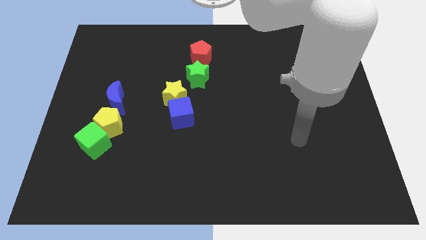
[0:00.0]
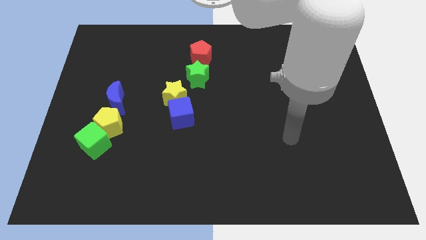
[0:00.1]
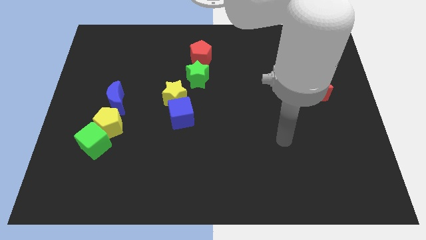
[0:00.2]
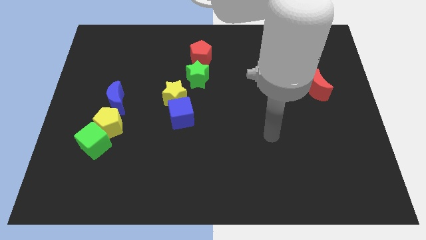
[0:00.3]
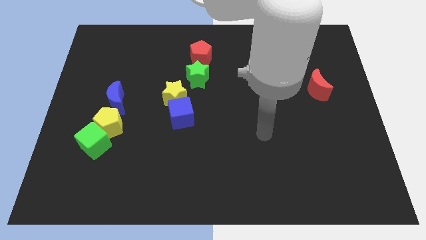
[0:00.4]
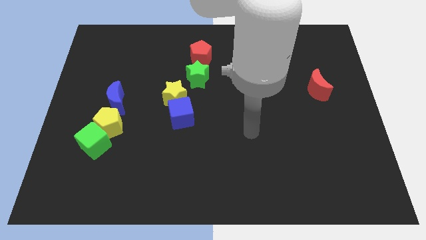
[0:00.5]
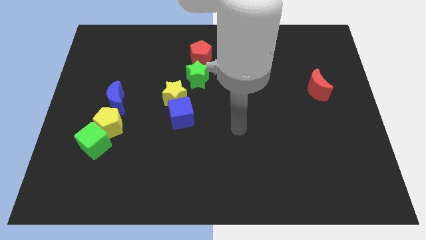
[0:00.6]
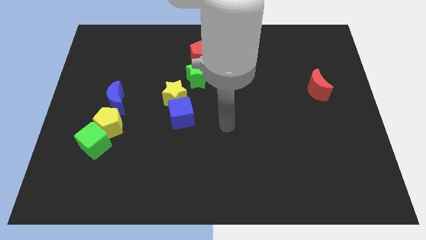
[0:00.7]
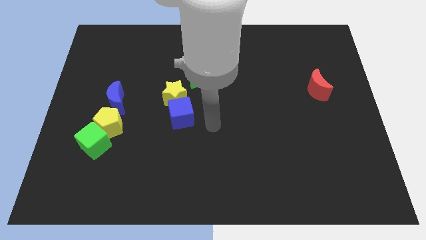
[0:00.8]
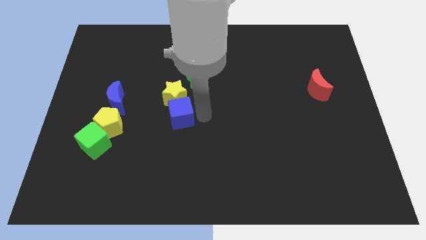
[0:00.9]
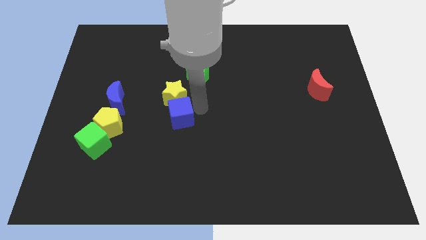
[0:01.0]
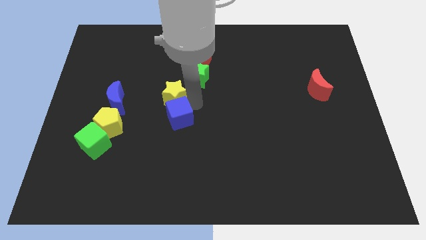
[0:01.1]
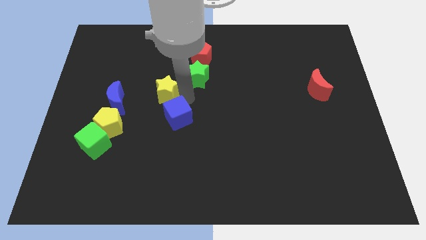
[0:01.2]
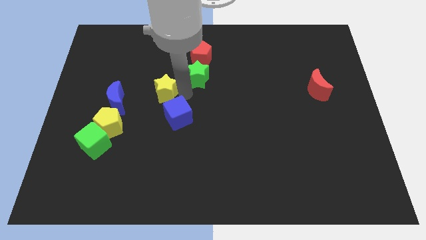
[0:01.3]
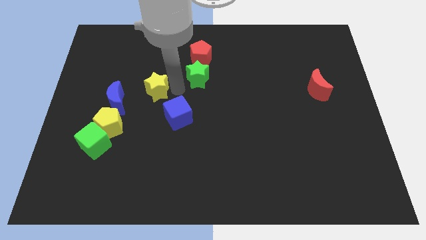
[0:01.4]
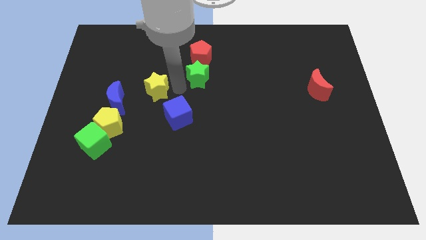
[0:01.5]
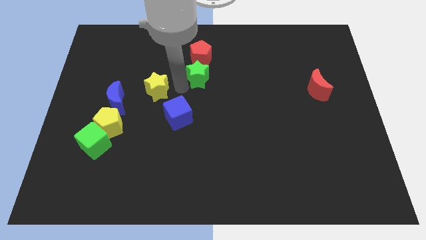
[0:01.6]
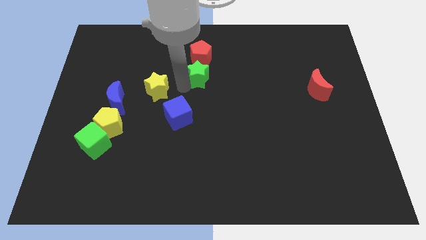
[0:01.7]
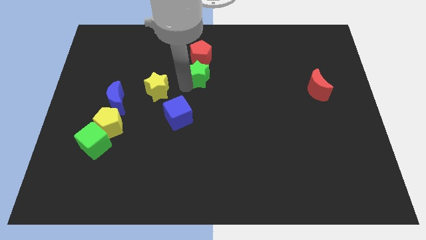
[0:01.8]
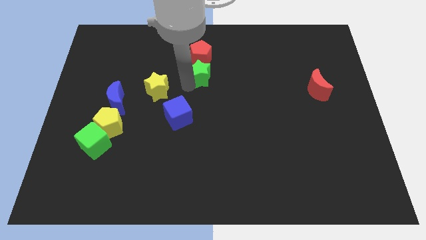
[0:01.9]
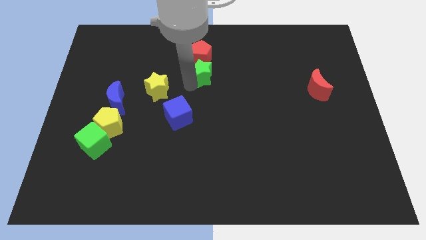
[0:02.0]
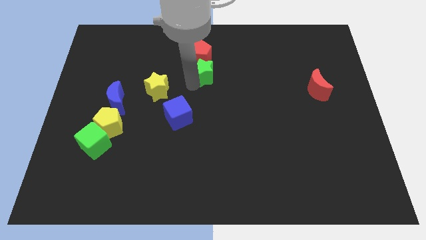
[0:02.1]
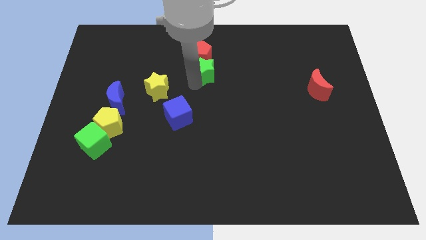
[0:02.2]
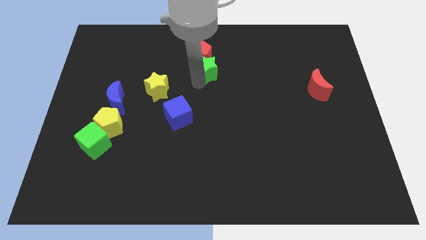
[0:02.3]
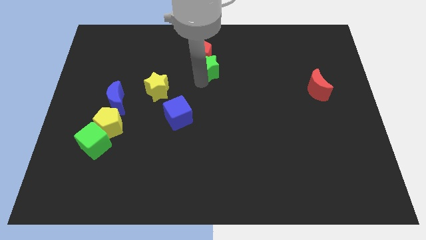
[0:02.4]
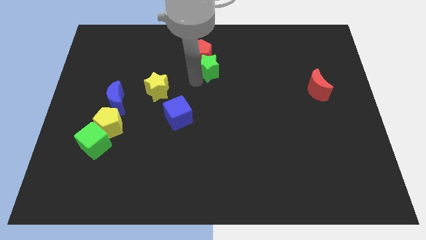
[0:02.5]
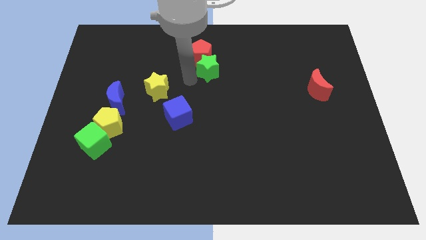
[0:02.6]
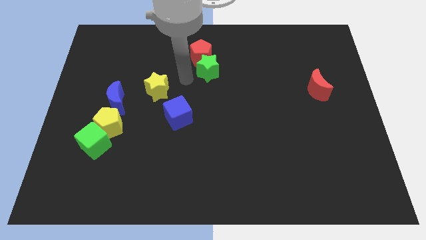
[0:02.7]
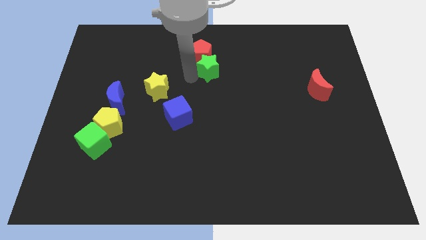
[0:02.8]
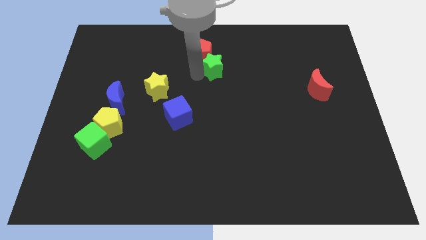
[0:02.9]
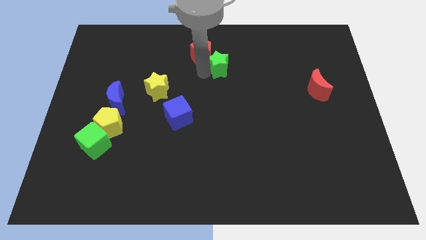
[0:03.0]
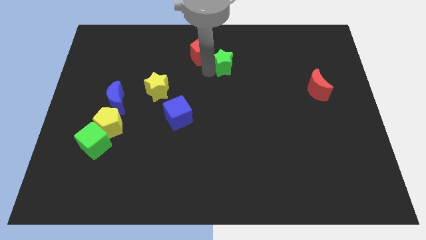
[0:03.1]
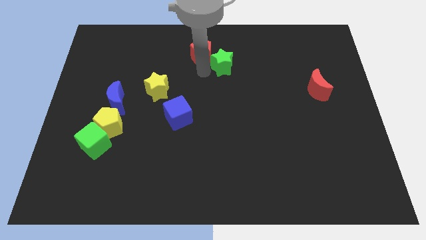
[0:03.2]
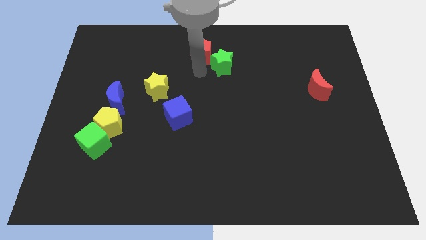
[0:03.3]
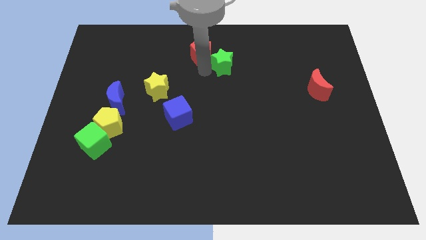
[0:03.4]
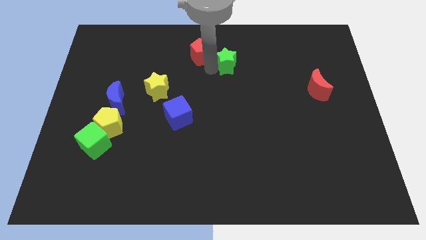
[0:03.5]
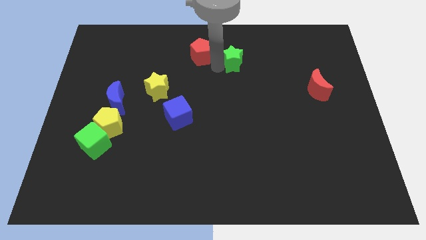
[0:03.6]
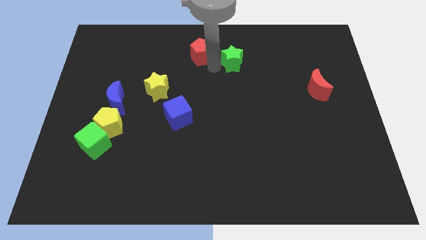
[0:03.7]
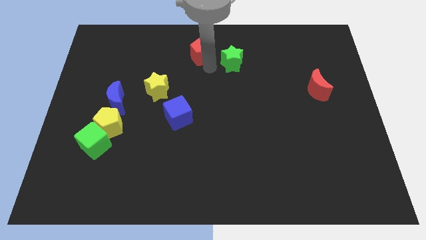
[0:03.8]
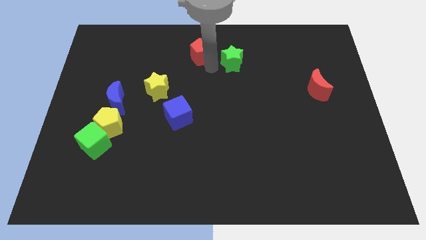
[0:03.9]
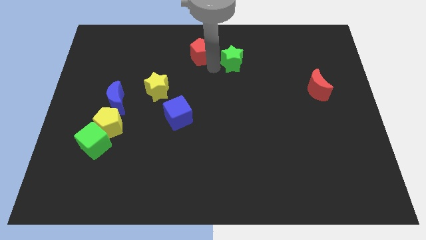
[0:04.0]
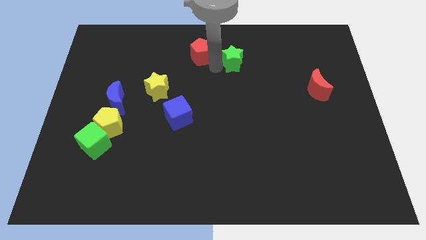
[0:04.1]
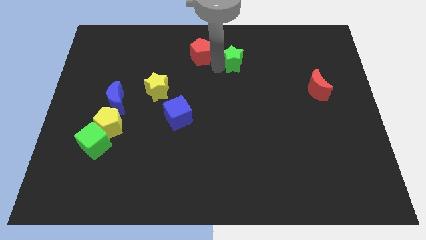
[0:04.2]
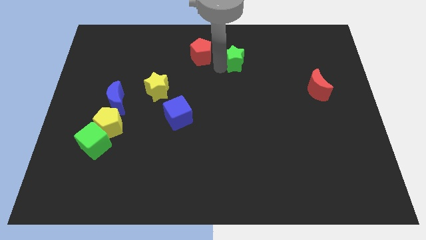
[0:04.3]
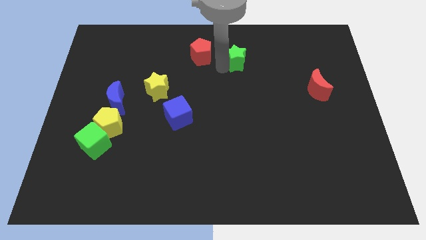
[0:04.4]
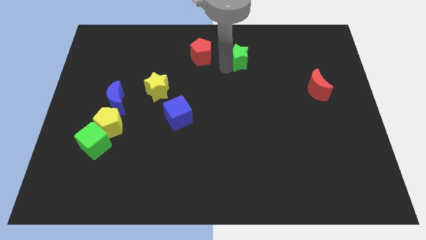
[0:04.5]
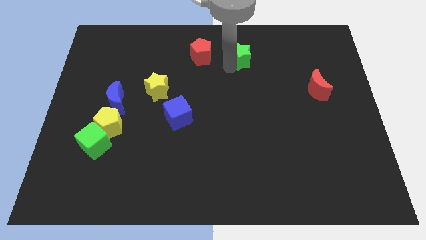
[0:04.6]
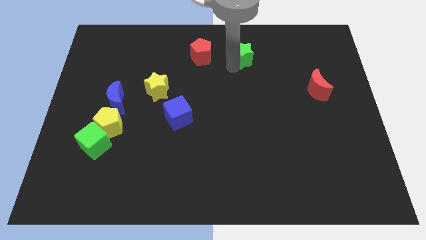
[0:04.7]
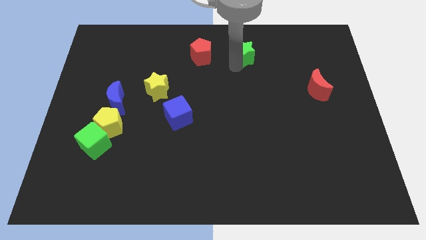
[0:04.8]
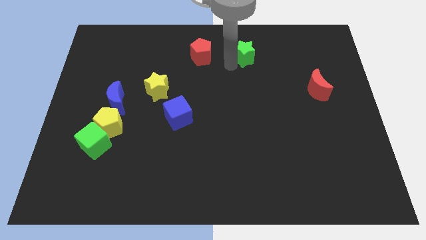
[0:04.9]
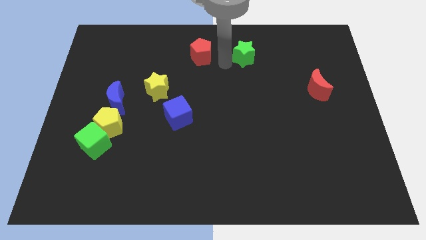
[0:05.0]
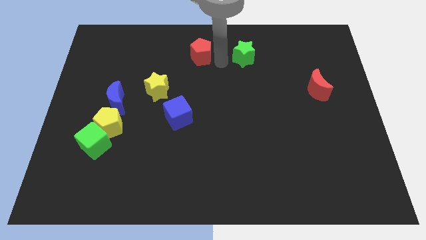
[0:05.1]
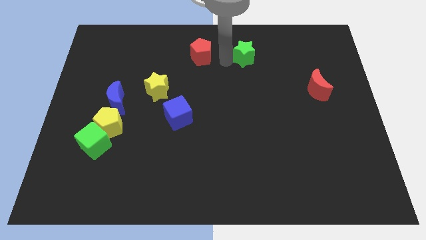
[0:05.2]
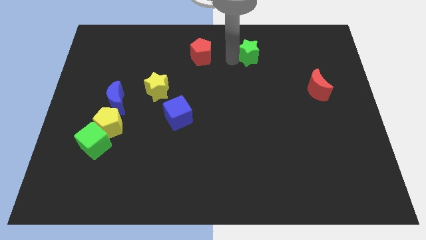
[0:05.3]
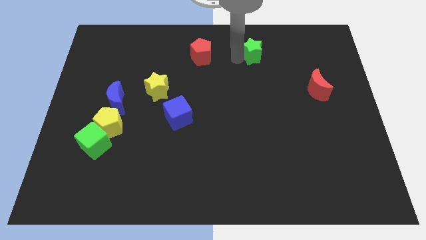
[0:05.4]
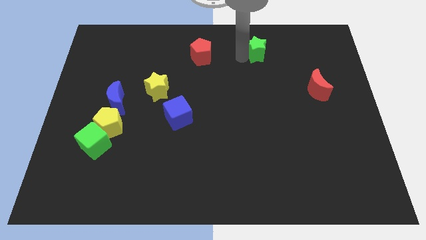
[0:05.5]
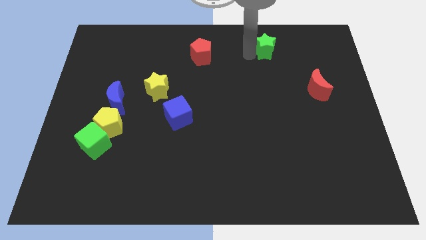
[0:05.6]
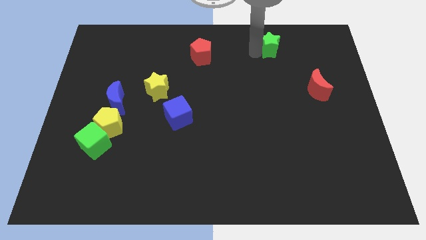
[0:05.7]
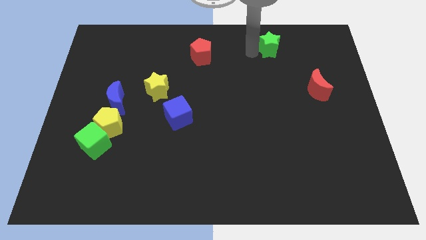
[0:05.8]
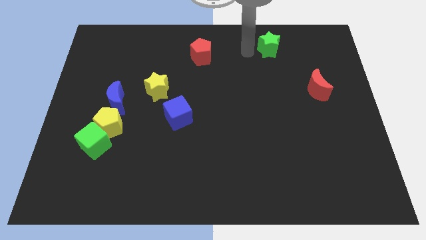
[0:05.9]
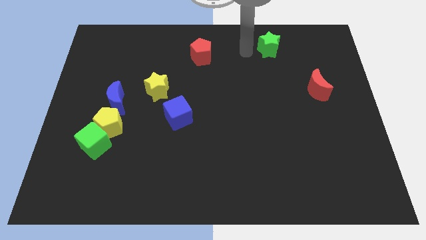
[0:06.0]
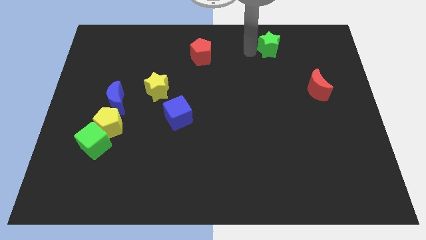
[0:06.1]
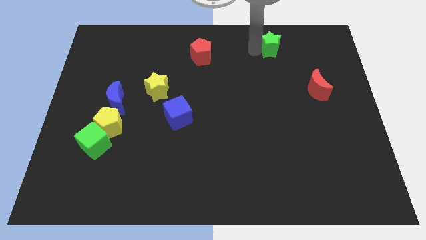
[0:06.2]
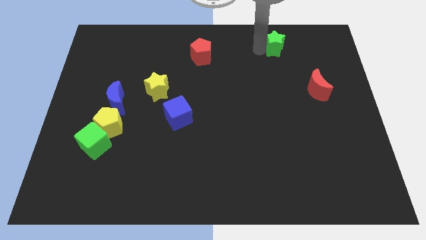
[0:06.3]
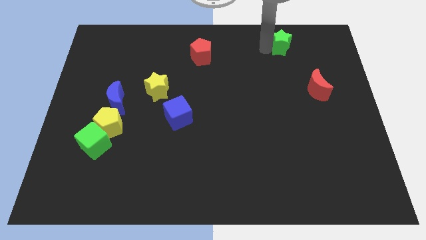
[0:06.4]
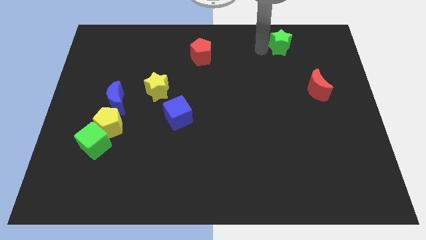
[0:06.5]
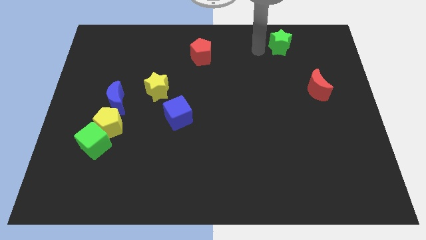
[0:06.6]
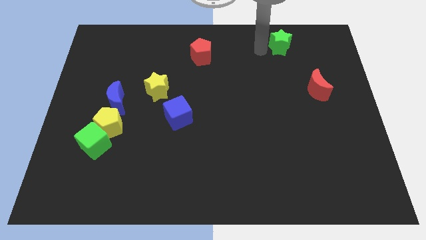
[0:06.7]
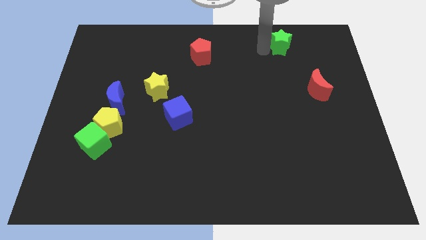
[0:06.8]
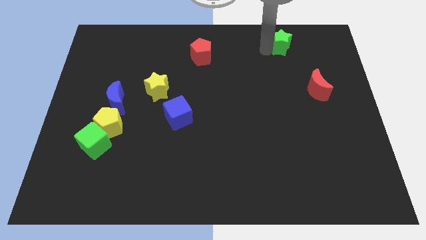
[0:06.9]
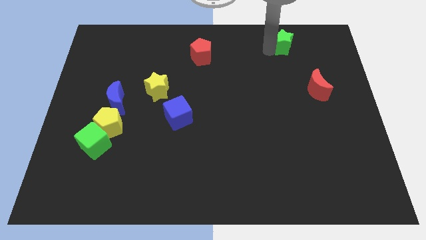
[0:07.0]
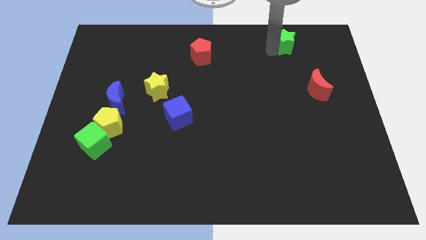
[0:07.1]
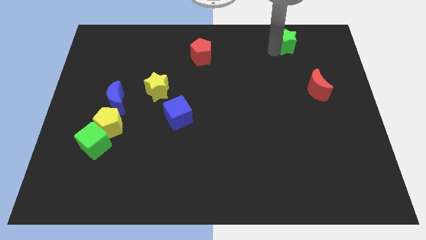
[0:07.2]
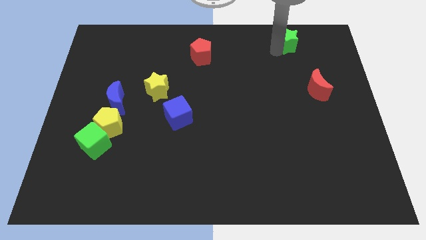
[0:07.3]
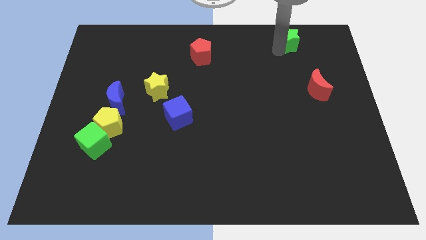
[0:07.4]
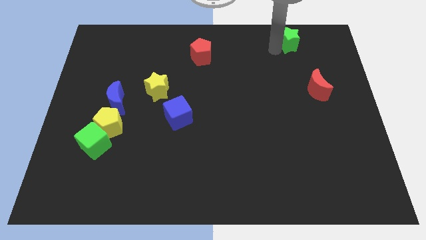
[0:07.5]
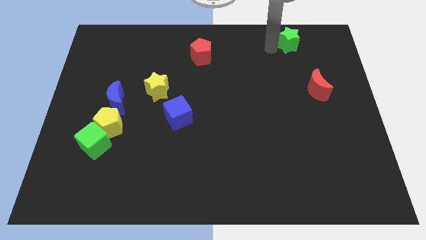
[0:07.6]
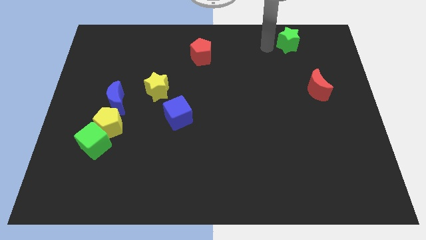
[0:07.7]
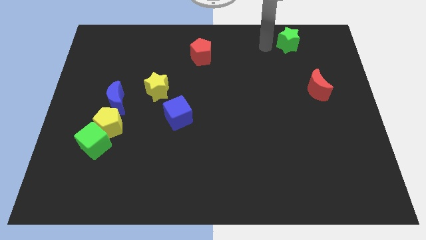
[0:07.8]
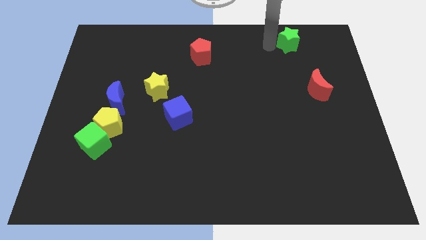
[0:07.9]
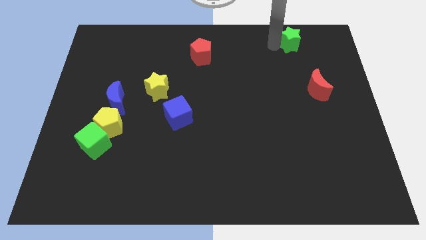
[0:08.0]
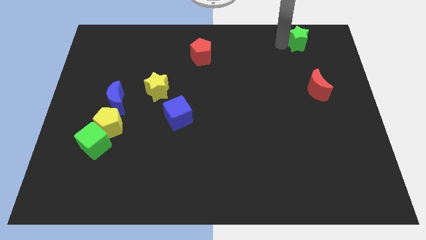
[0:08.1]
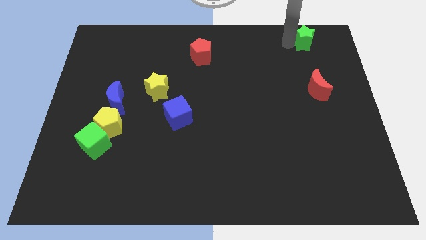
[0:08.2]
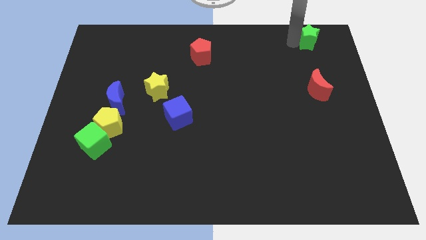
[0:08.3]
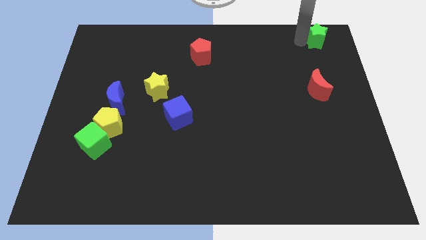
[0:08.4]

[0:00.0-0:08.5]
push the green star to the top right of the board
